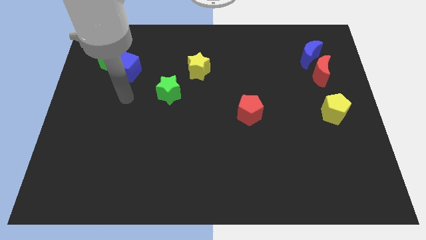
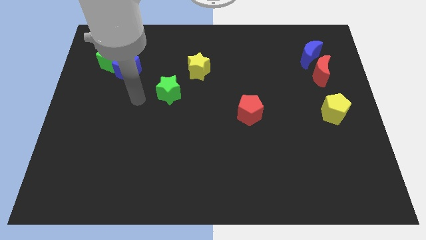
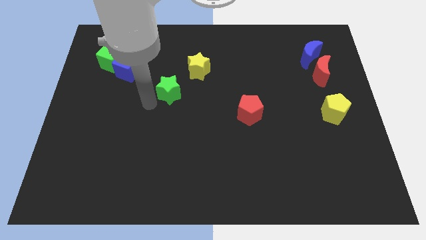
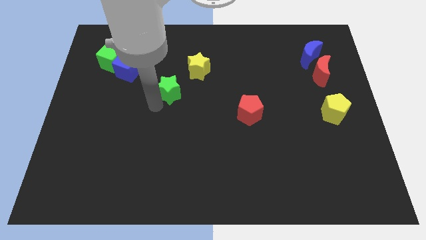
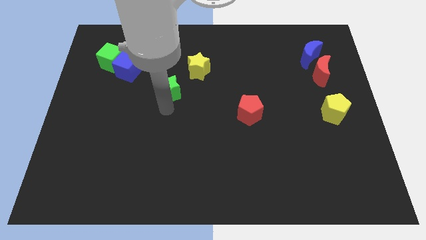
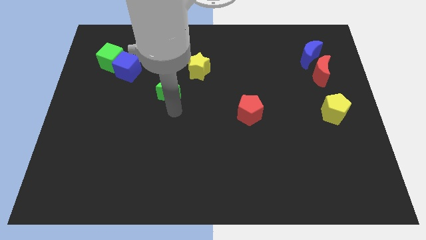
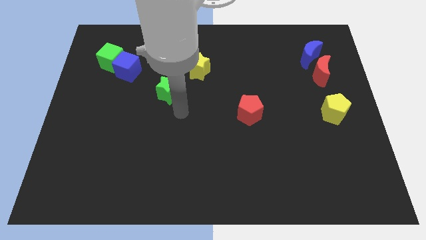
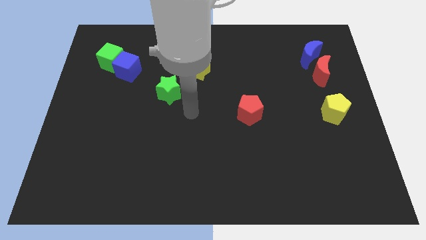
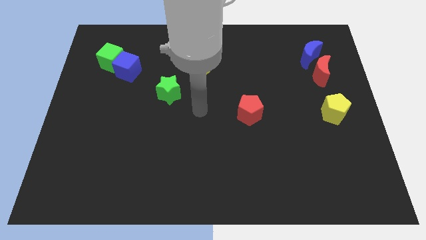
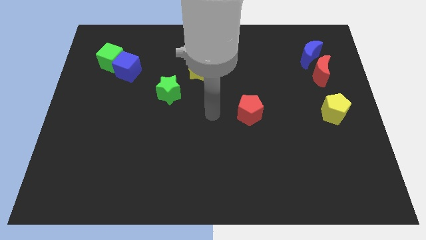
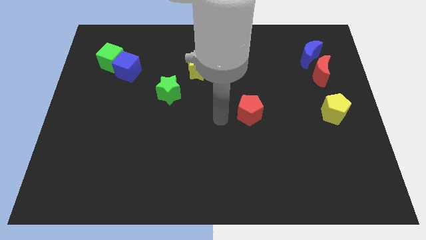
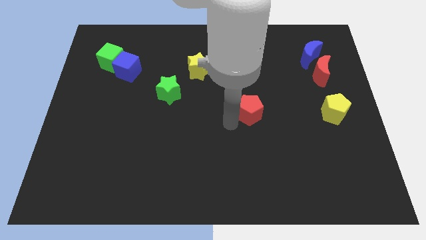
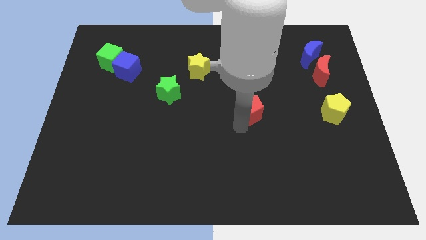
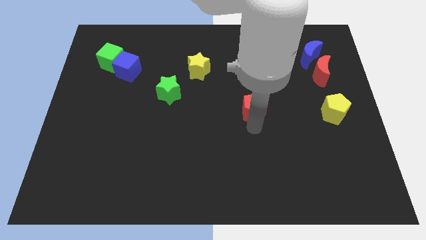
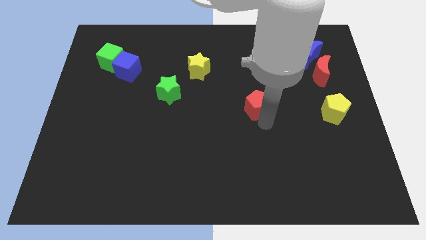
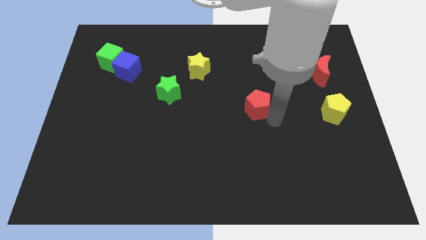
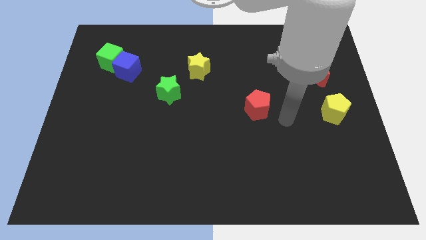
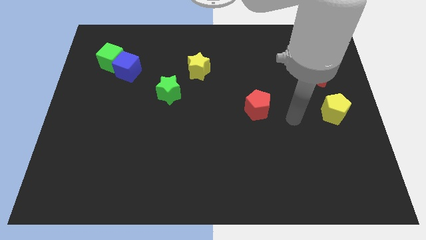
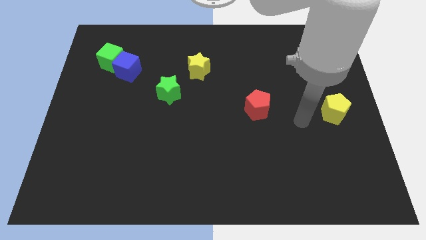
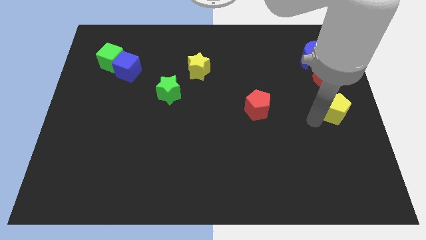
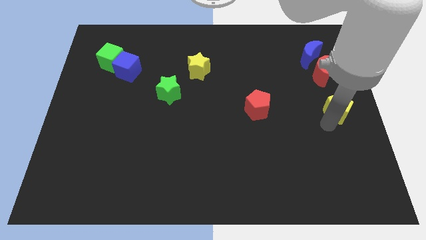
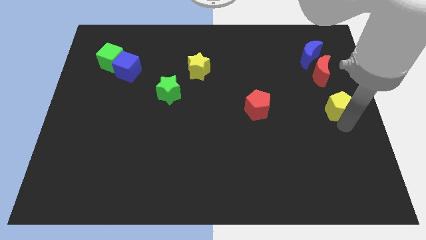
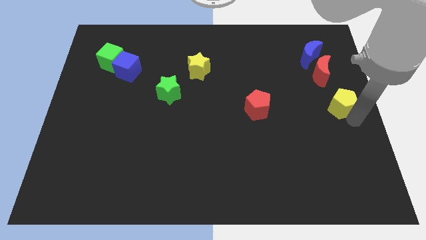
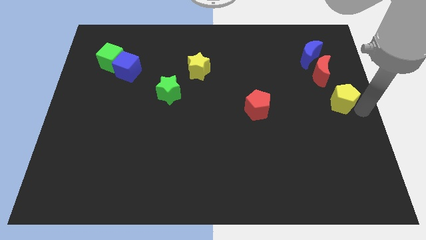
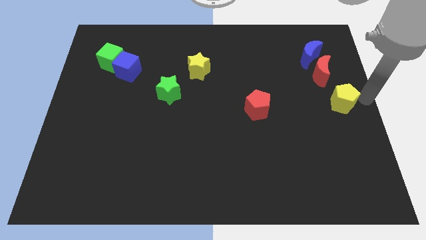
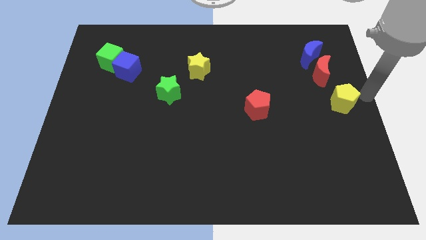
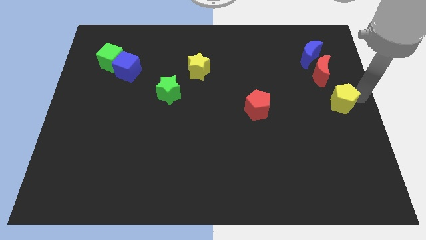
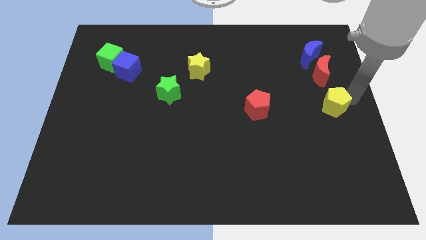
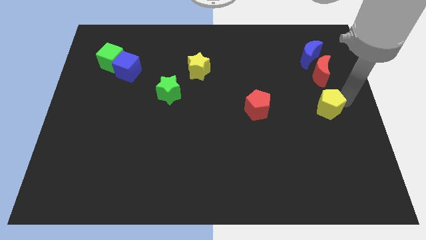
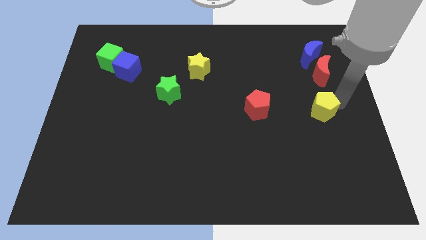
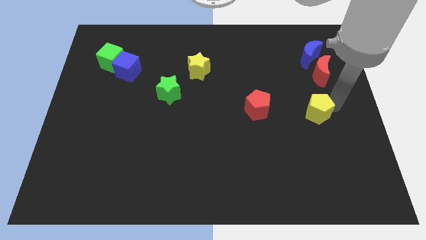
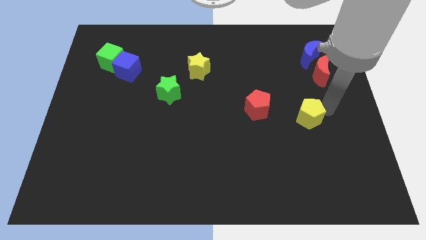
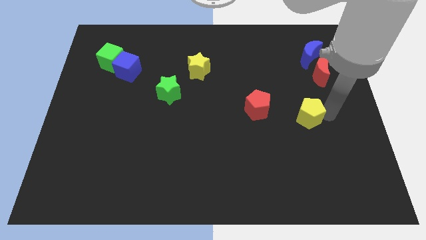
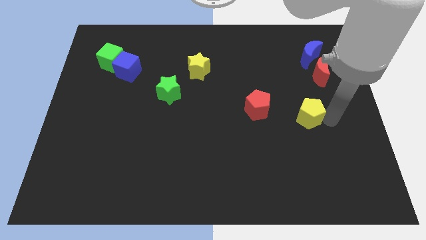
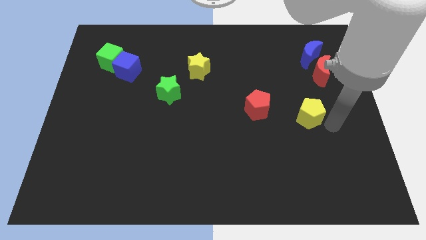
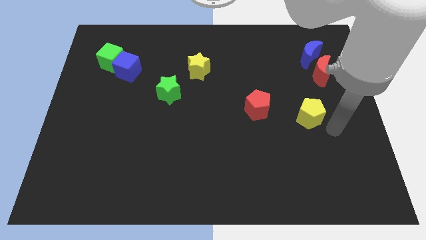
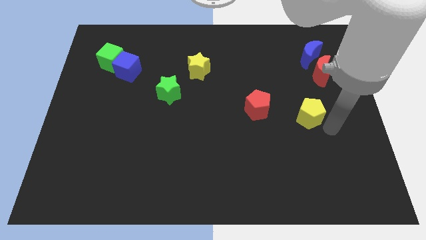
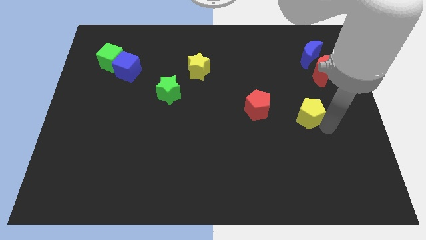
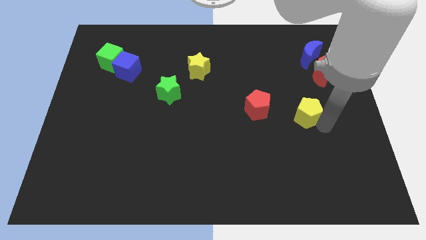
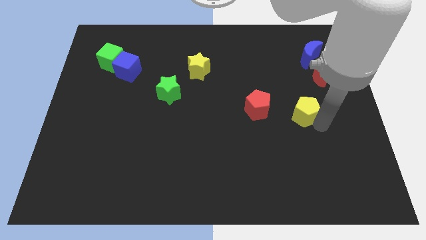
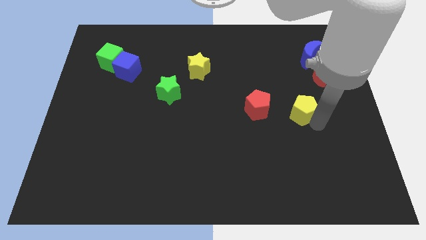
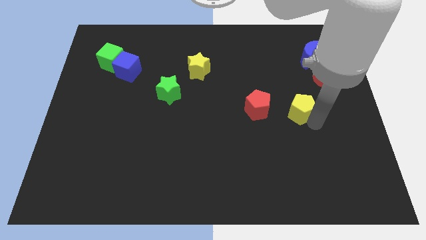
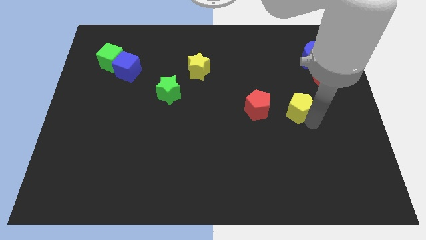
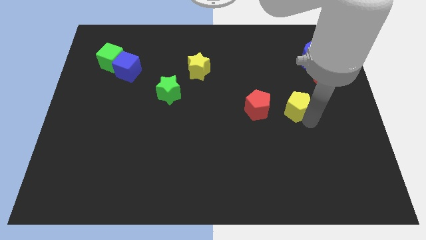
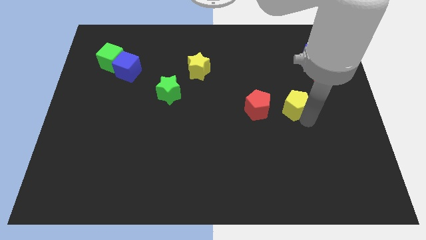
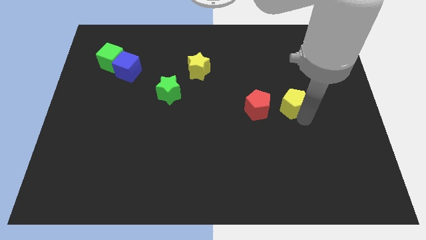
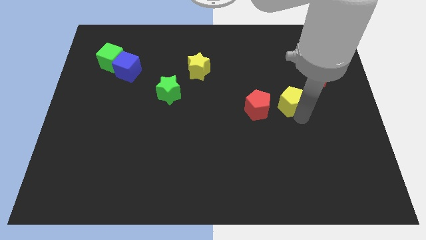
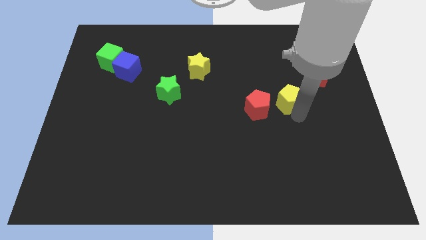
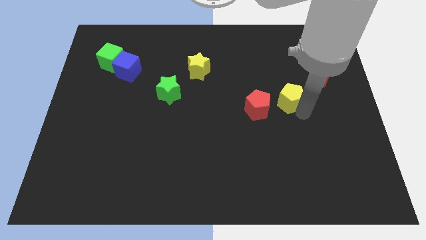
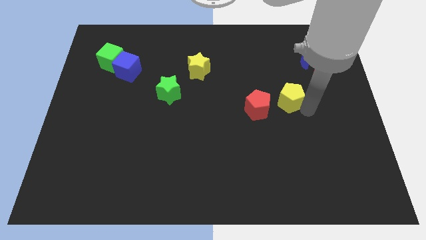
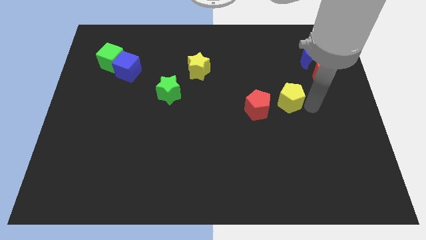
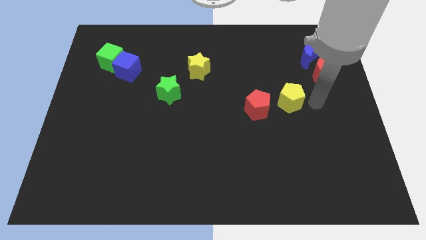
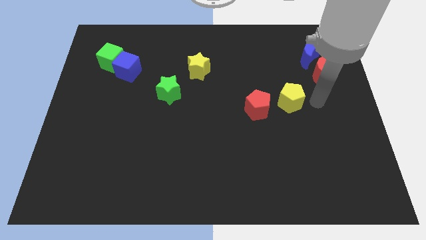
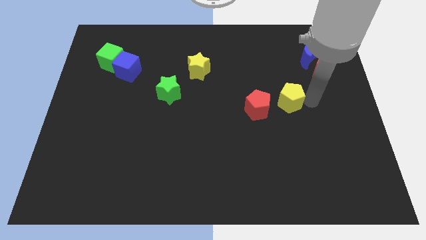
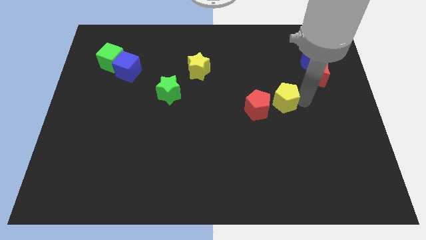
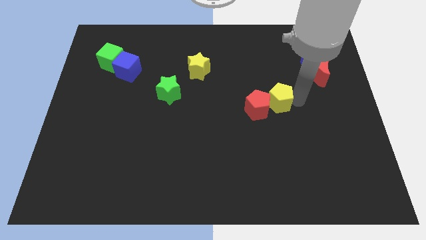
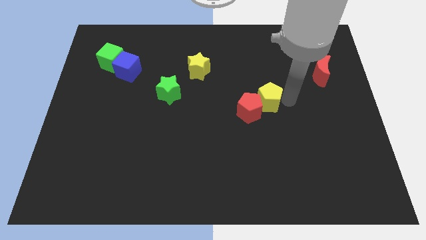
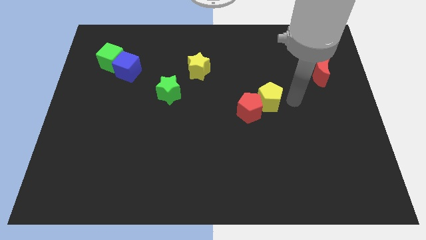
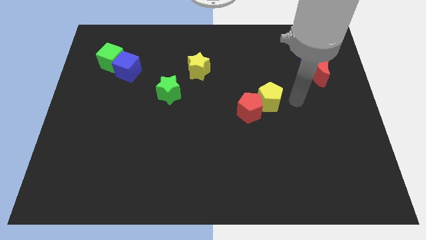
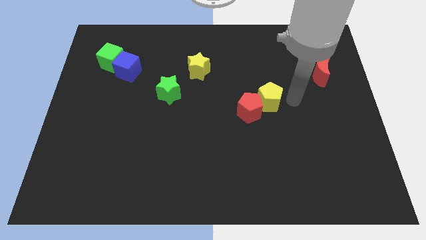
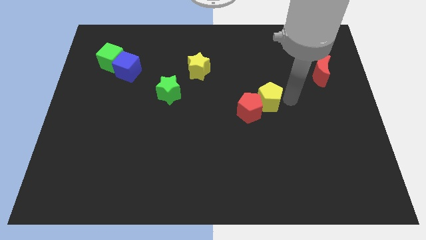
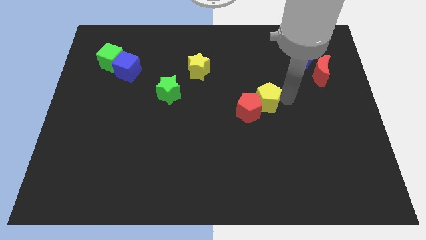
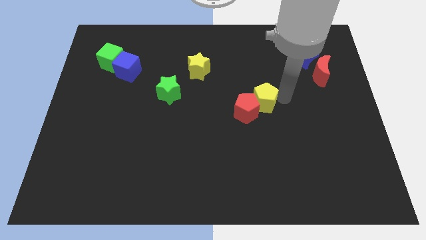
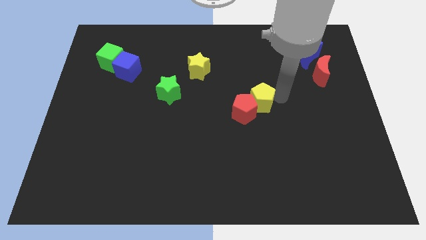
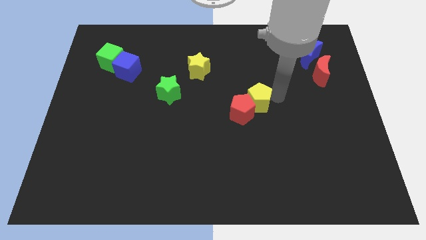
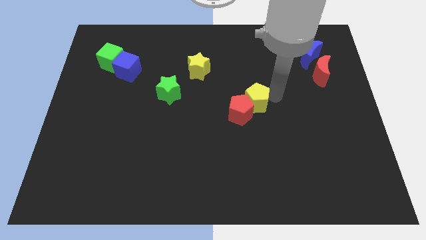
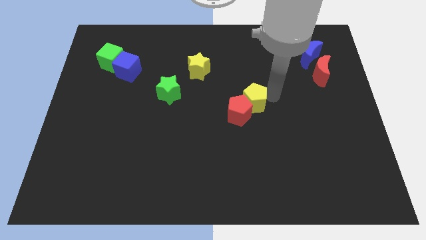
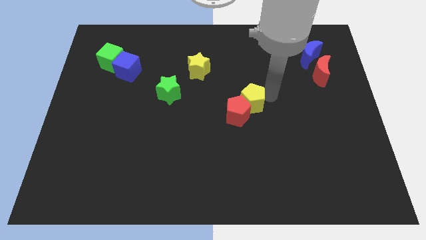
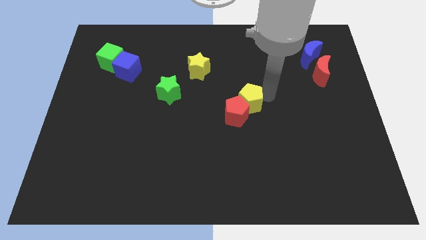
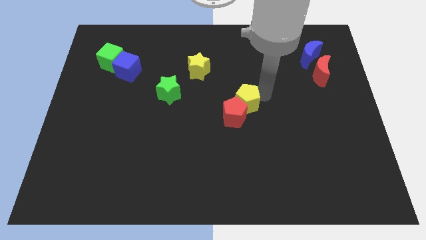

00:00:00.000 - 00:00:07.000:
slide the yellow pentagon left

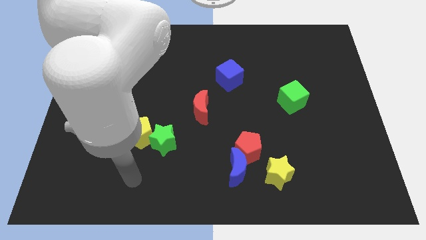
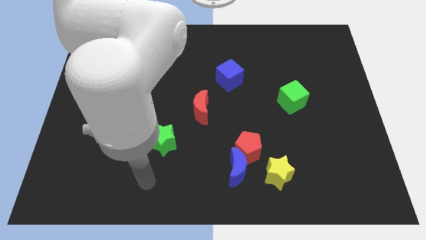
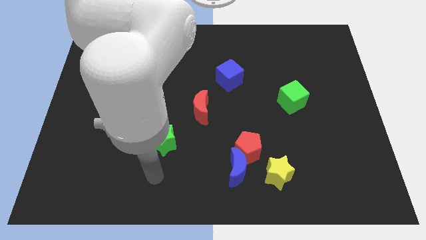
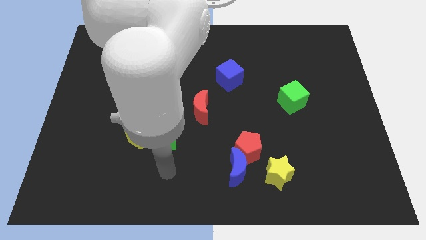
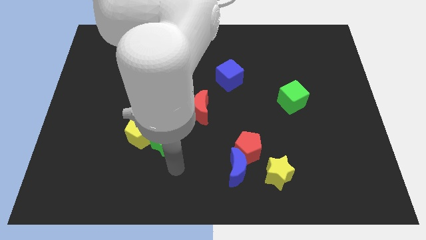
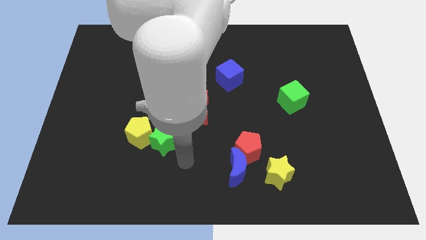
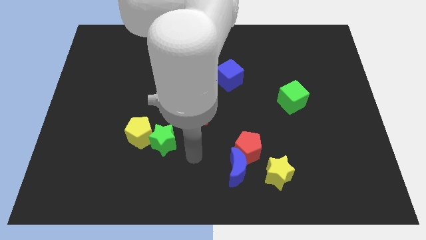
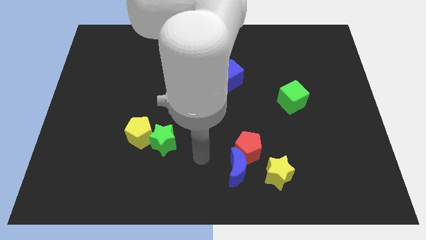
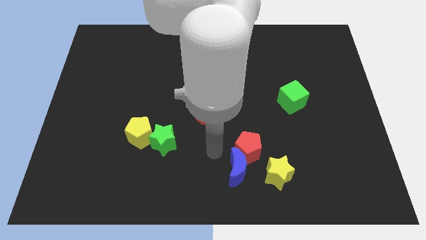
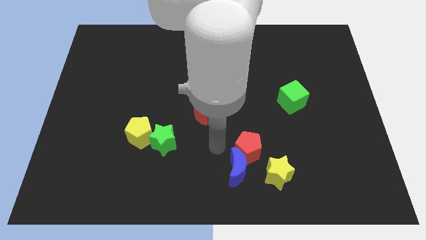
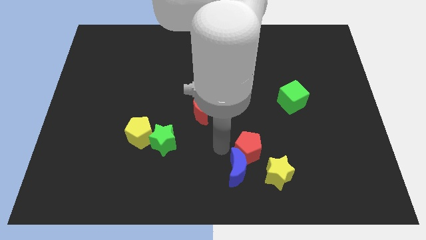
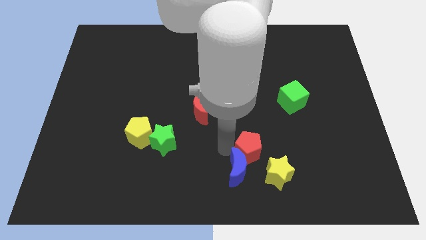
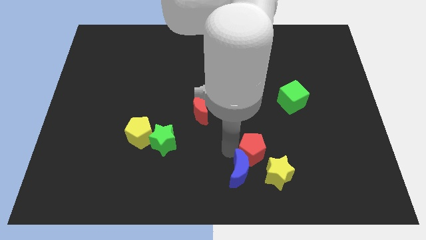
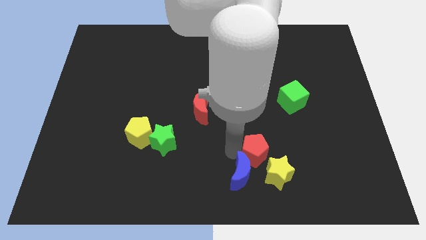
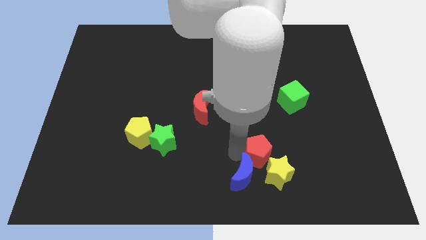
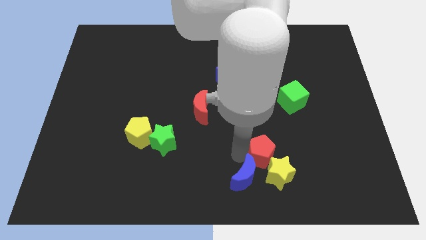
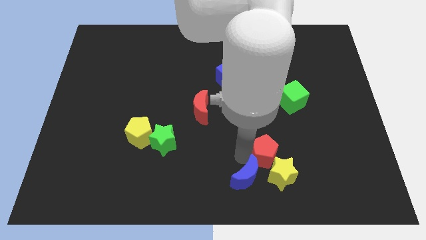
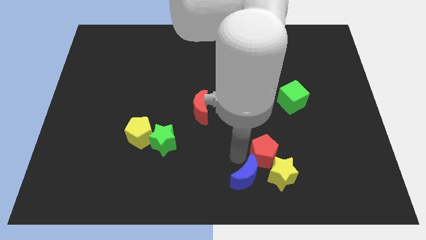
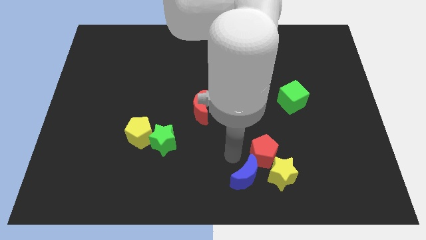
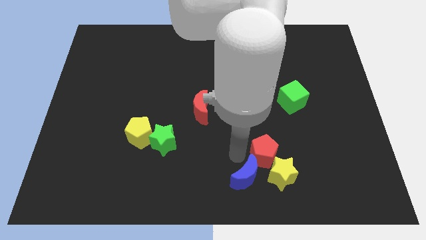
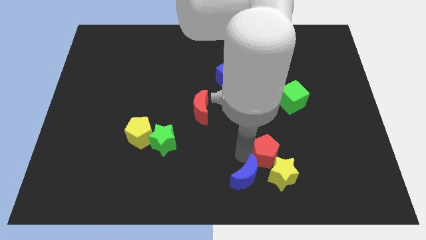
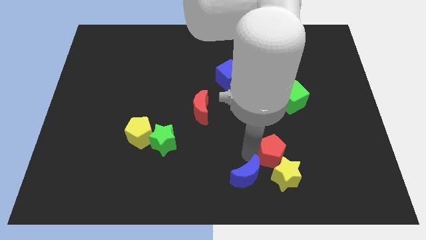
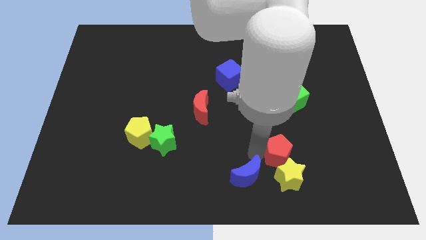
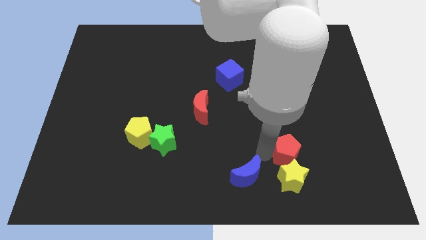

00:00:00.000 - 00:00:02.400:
push the red pentagon right somewhat
